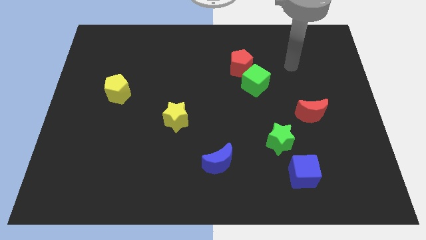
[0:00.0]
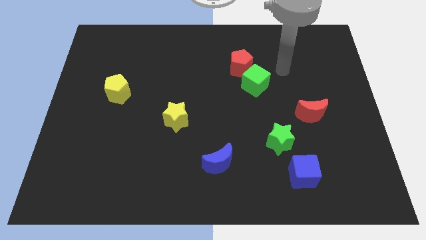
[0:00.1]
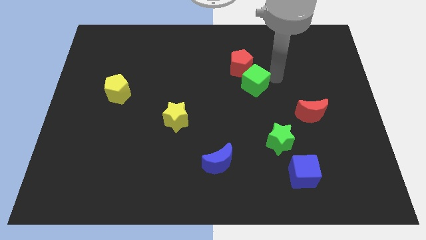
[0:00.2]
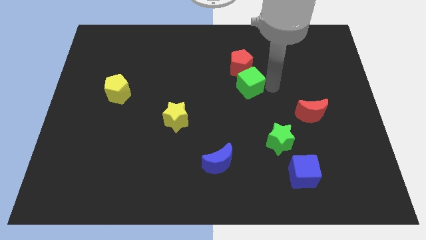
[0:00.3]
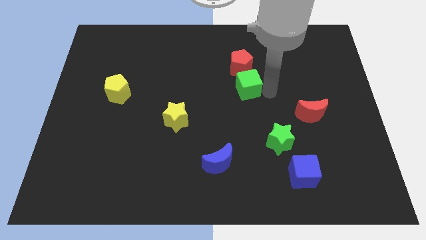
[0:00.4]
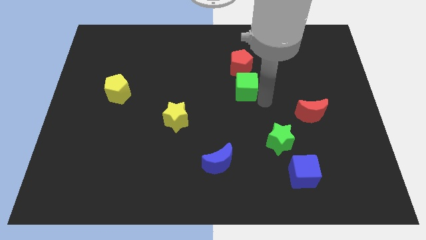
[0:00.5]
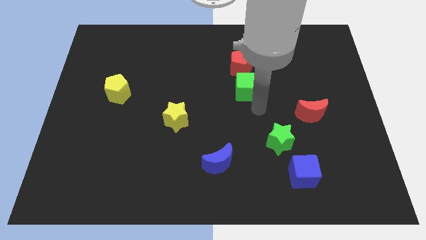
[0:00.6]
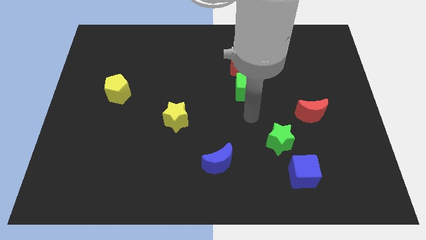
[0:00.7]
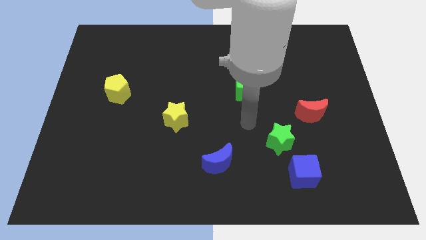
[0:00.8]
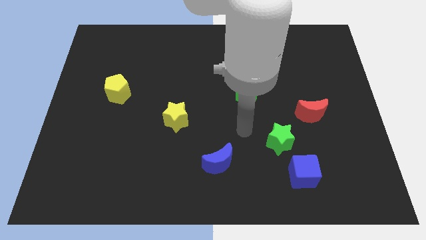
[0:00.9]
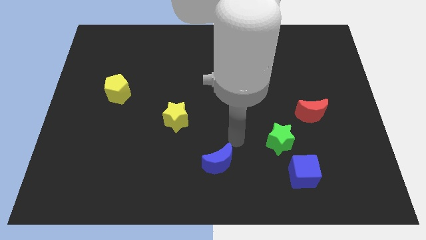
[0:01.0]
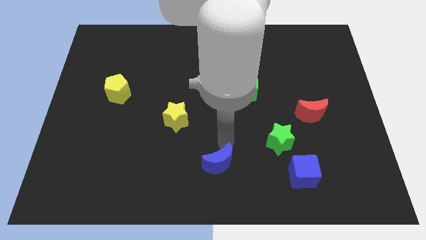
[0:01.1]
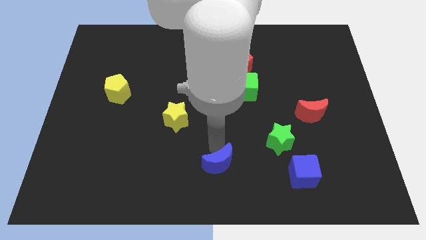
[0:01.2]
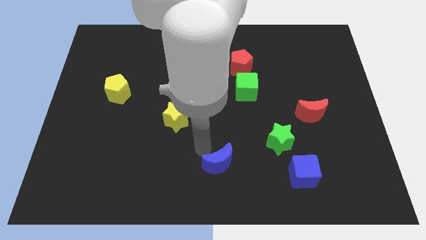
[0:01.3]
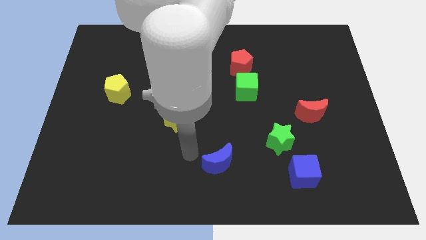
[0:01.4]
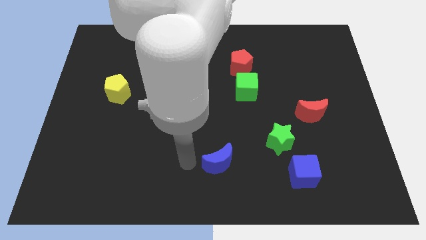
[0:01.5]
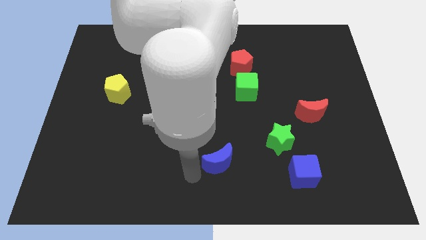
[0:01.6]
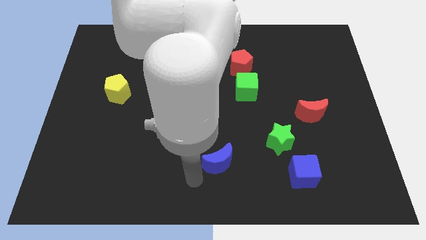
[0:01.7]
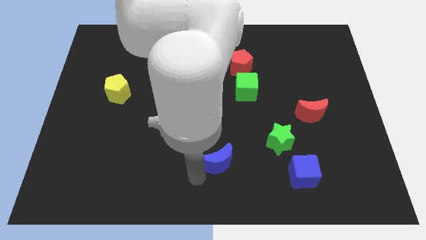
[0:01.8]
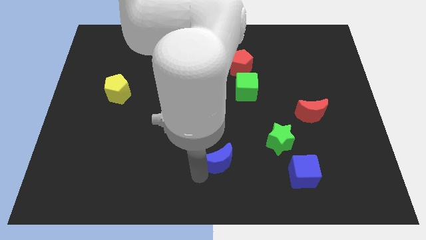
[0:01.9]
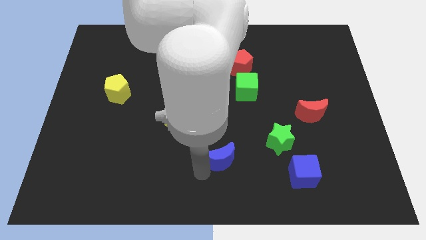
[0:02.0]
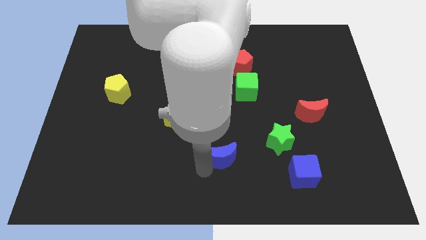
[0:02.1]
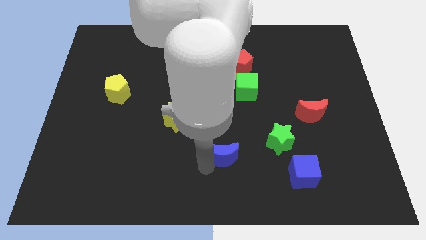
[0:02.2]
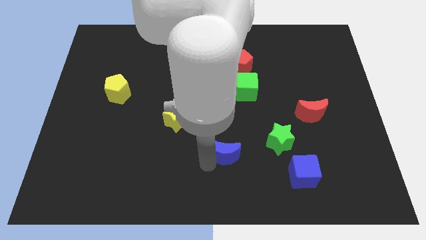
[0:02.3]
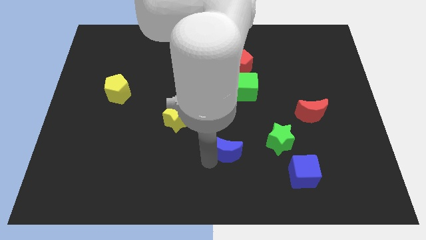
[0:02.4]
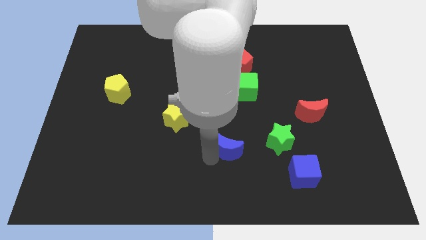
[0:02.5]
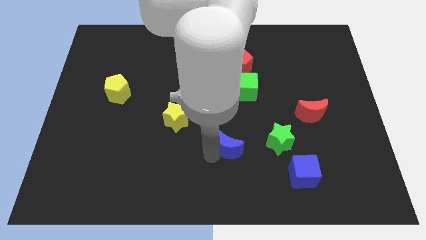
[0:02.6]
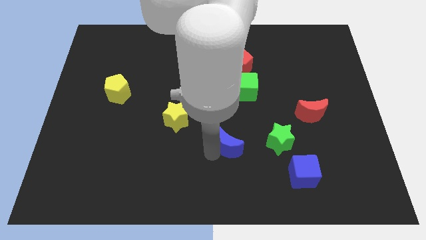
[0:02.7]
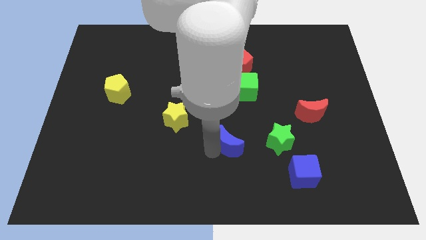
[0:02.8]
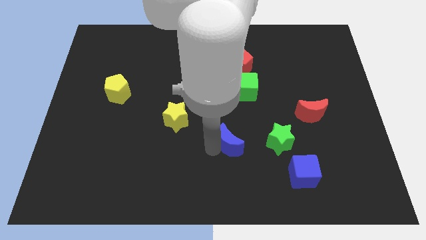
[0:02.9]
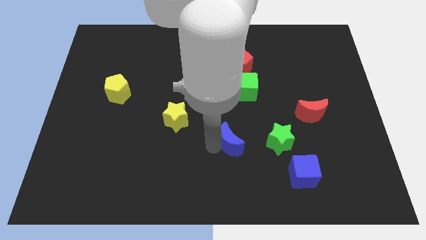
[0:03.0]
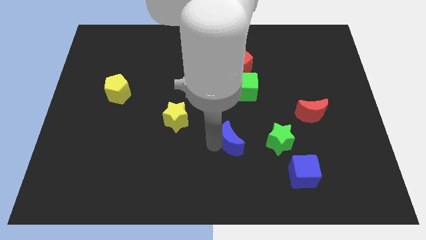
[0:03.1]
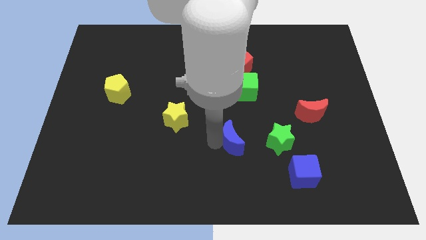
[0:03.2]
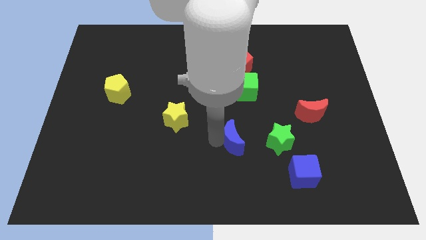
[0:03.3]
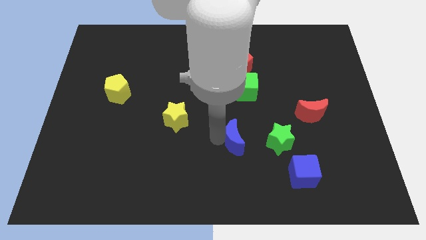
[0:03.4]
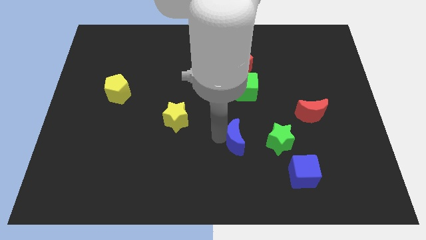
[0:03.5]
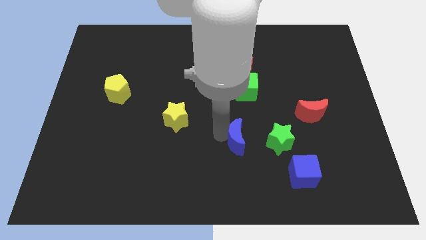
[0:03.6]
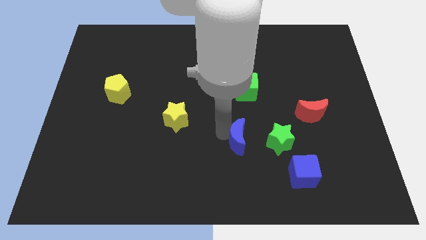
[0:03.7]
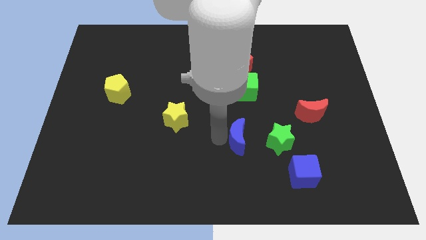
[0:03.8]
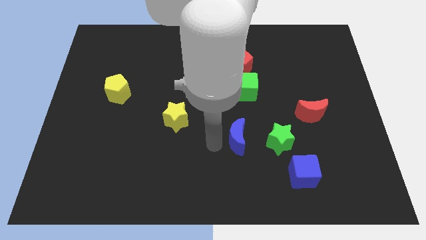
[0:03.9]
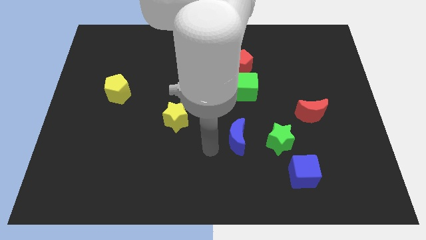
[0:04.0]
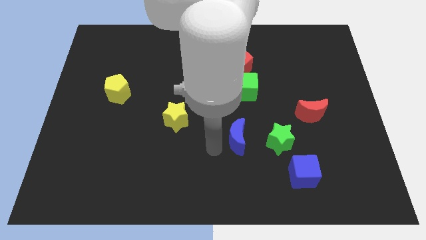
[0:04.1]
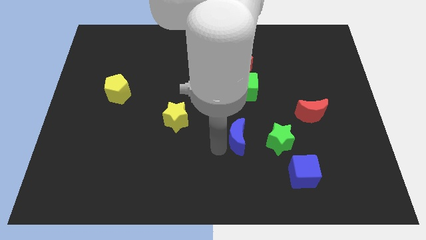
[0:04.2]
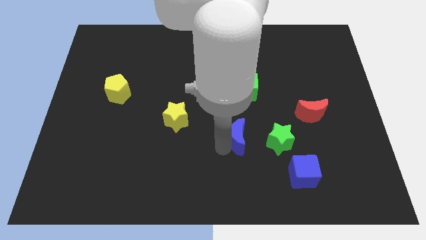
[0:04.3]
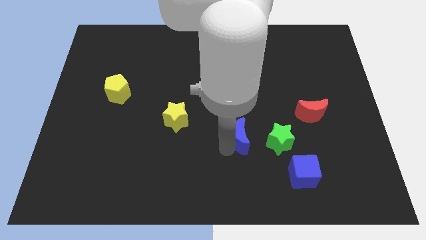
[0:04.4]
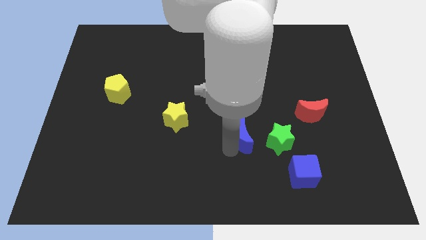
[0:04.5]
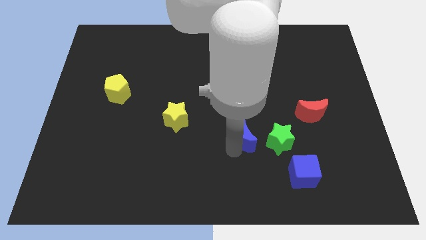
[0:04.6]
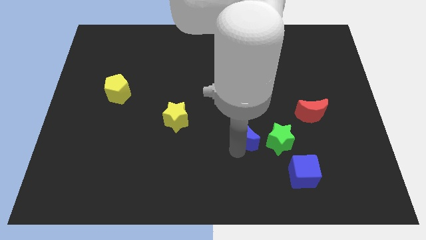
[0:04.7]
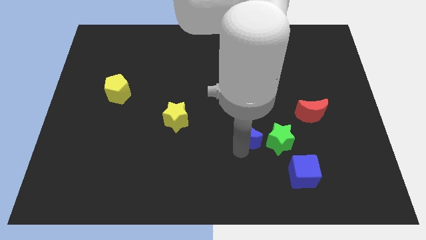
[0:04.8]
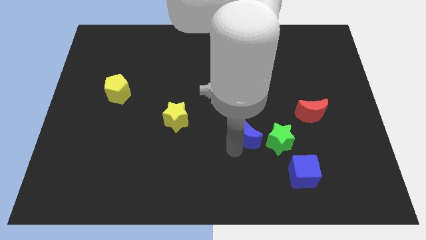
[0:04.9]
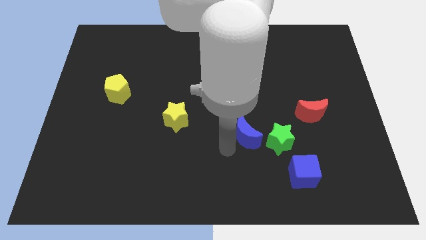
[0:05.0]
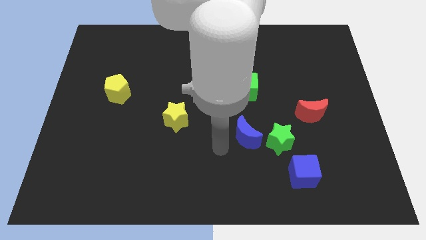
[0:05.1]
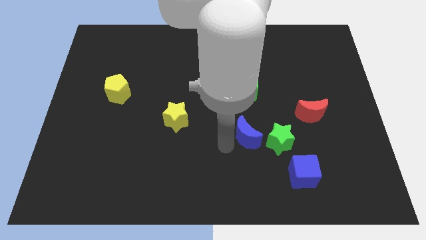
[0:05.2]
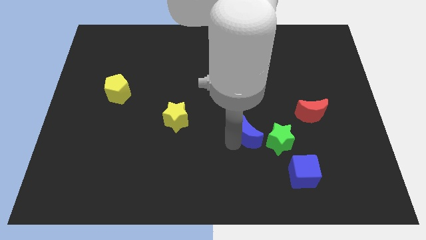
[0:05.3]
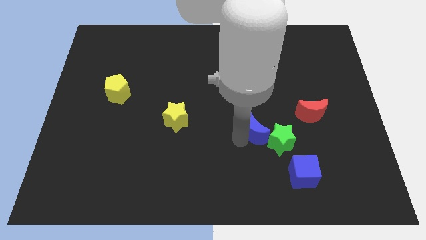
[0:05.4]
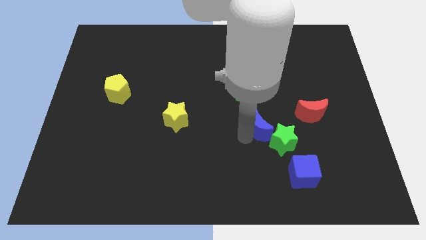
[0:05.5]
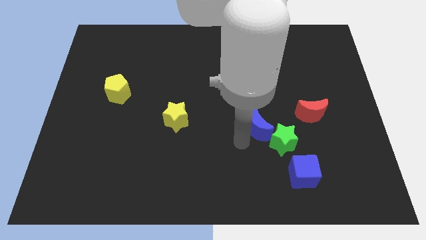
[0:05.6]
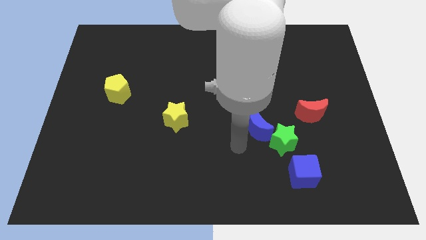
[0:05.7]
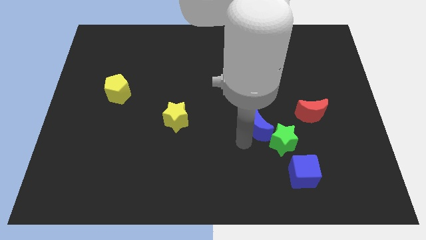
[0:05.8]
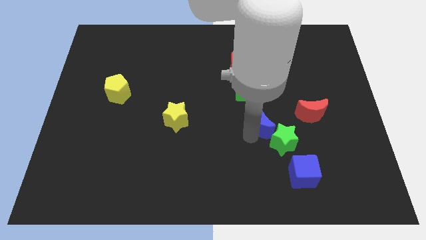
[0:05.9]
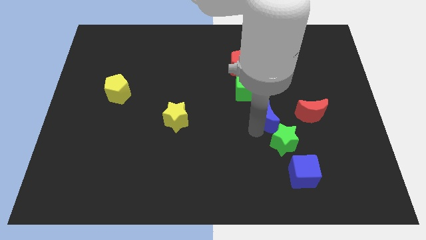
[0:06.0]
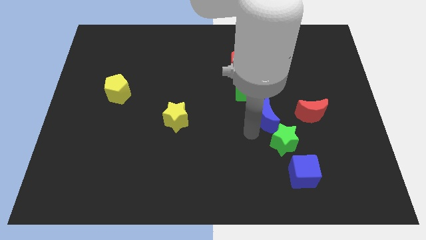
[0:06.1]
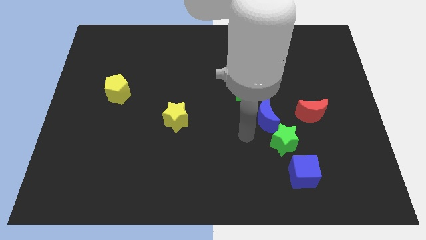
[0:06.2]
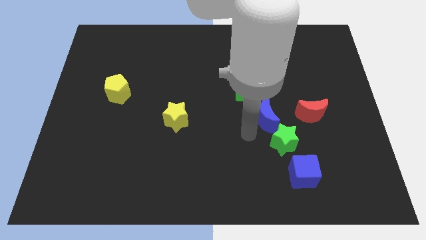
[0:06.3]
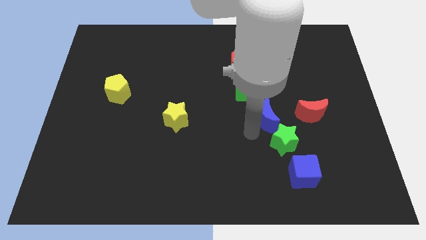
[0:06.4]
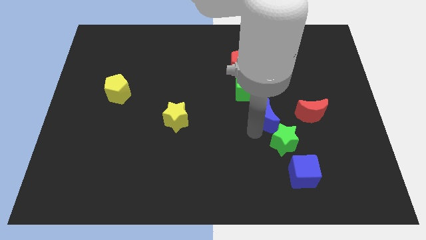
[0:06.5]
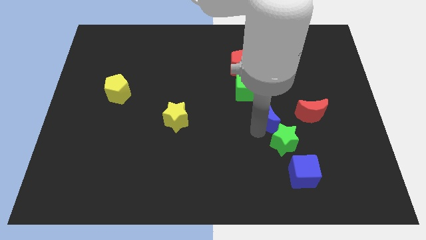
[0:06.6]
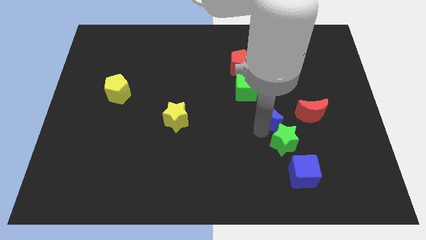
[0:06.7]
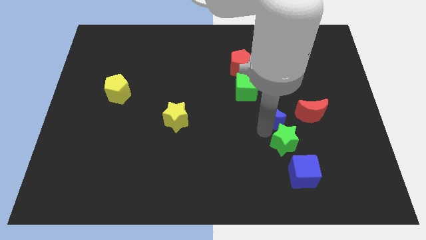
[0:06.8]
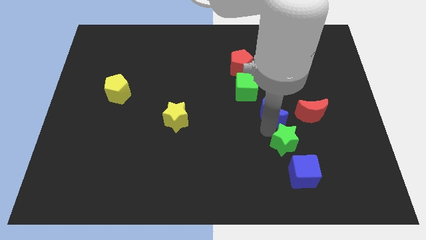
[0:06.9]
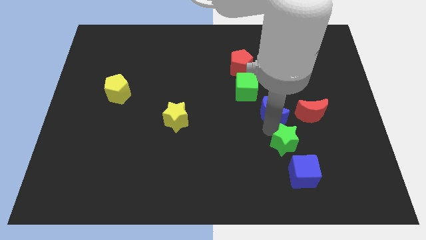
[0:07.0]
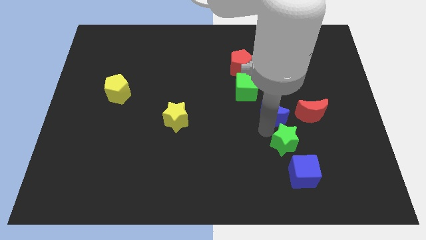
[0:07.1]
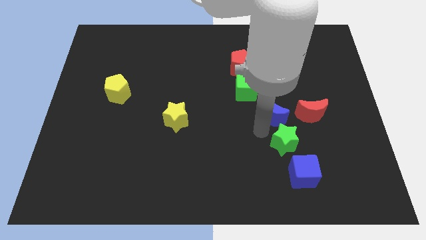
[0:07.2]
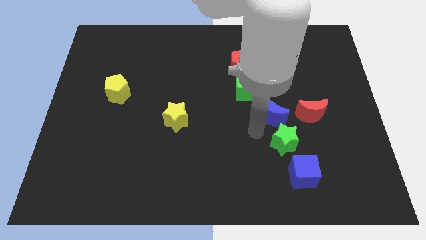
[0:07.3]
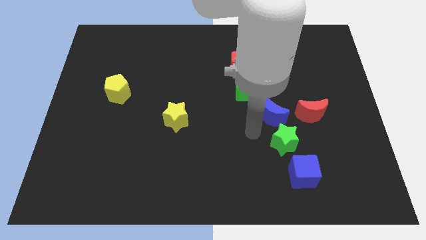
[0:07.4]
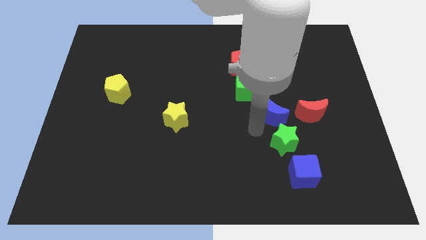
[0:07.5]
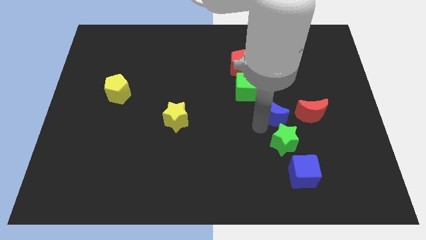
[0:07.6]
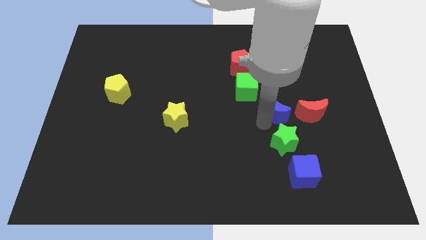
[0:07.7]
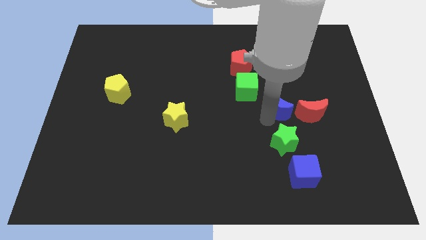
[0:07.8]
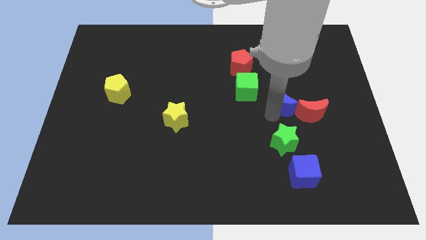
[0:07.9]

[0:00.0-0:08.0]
push the blue moon upwards and right diagonally

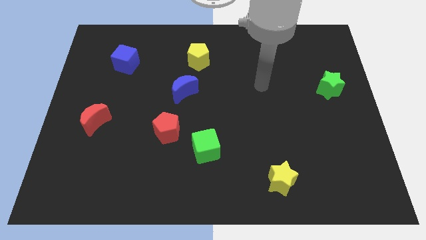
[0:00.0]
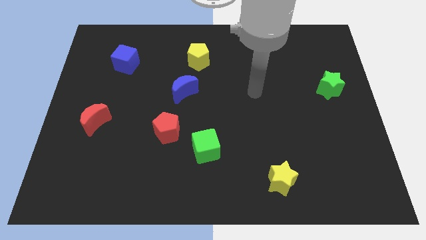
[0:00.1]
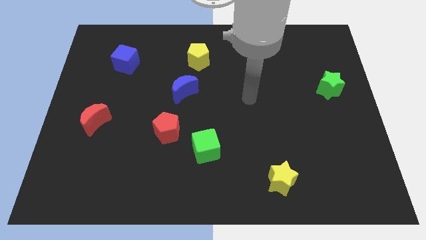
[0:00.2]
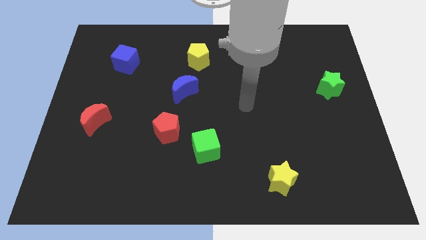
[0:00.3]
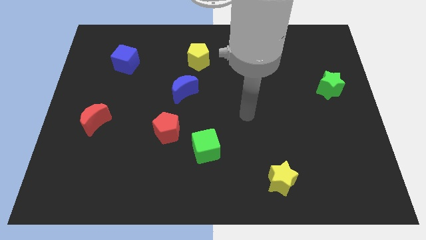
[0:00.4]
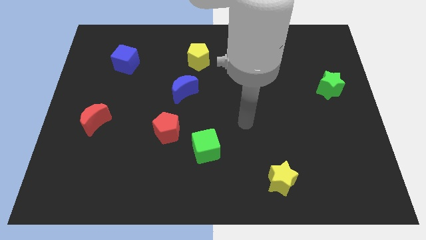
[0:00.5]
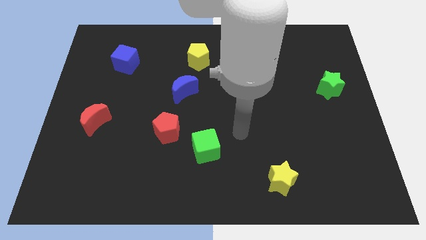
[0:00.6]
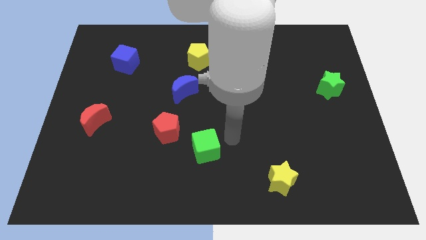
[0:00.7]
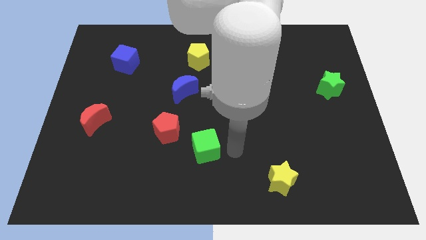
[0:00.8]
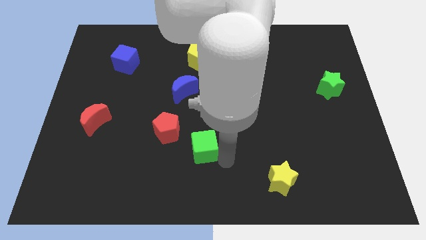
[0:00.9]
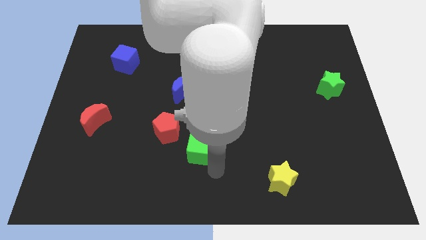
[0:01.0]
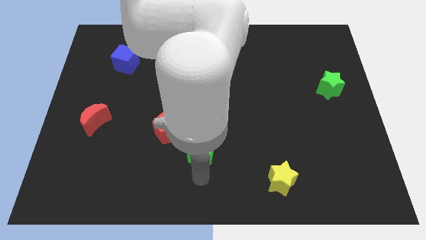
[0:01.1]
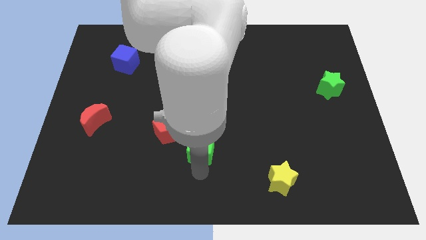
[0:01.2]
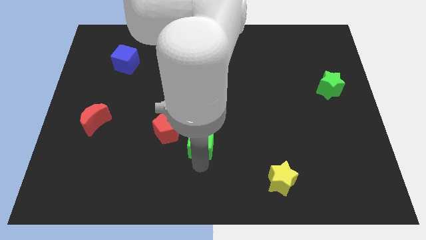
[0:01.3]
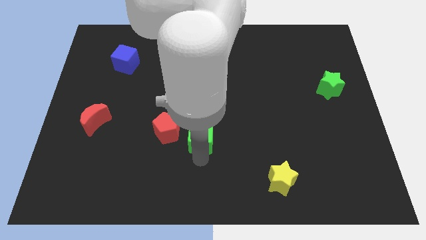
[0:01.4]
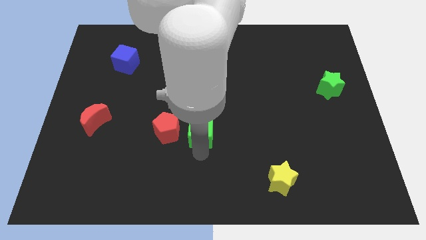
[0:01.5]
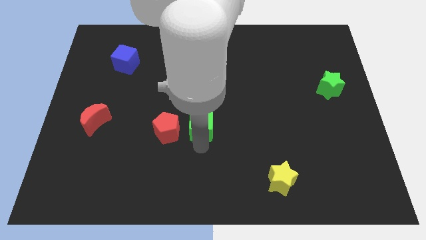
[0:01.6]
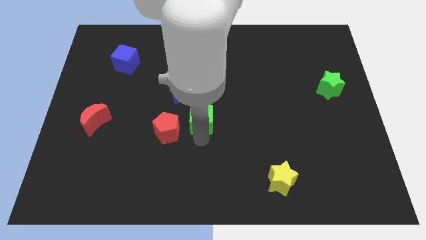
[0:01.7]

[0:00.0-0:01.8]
slide the green cube upwards somewhat
